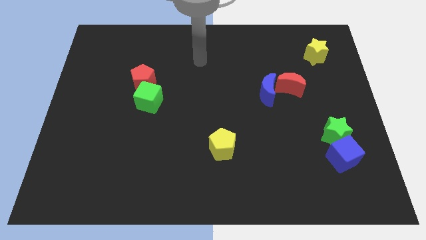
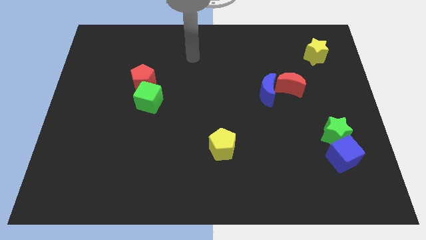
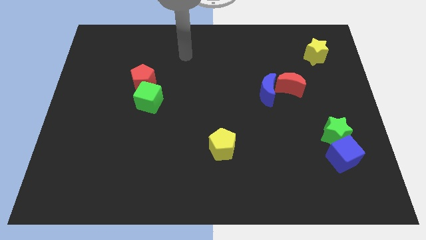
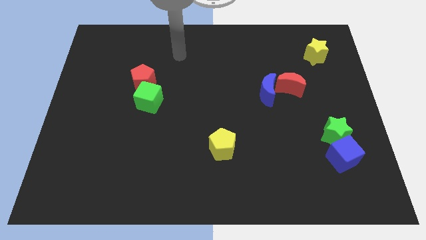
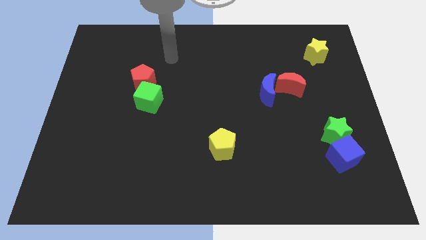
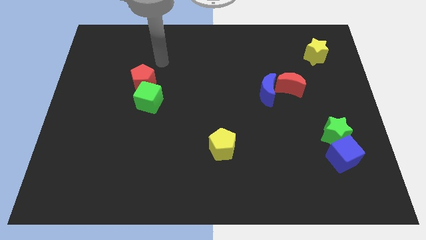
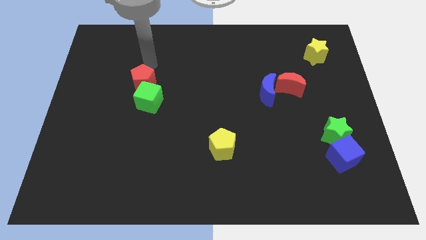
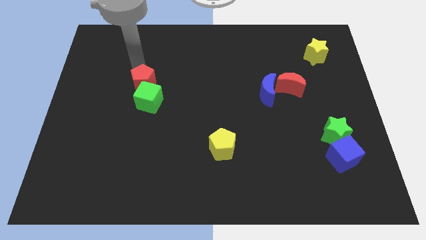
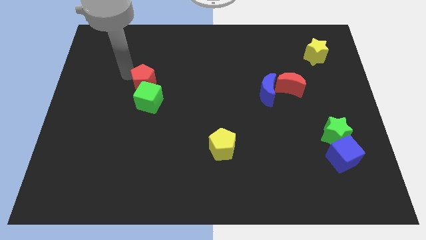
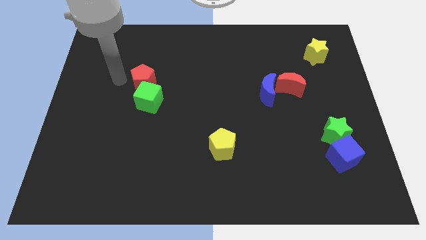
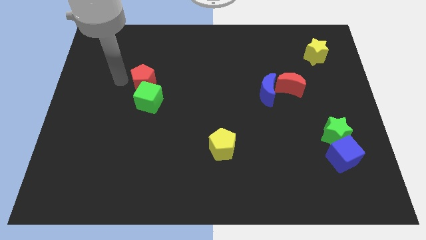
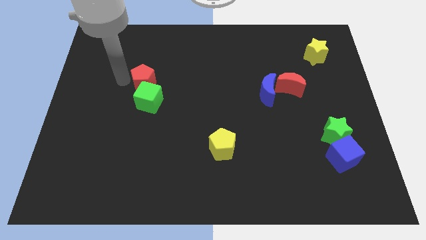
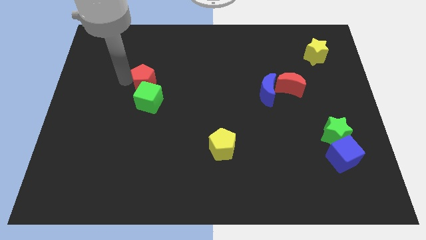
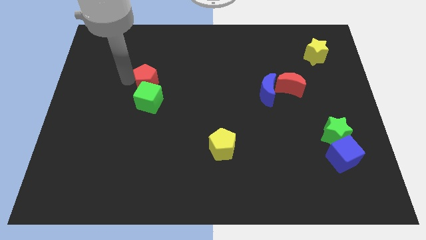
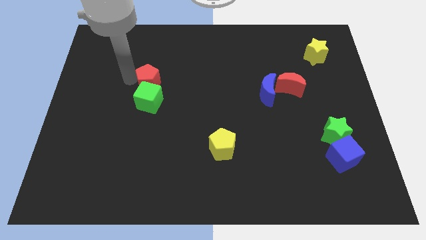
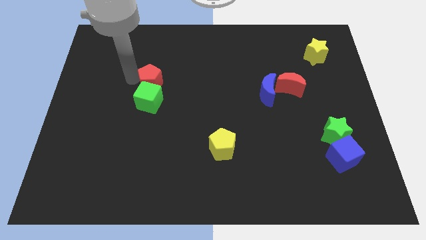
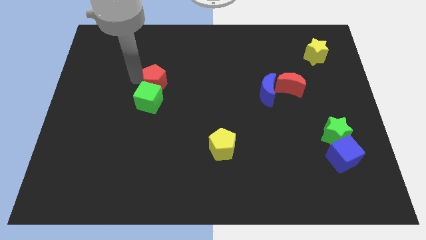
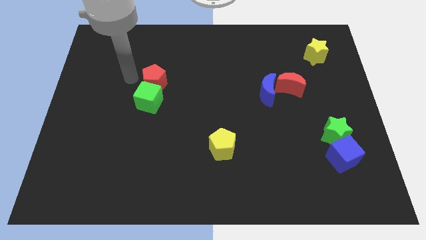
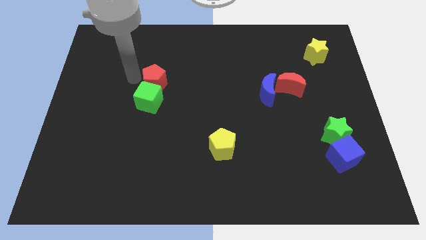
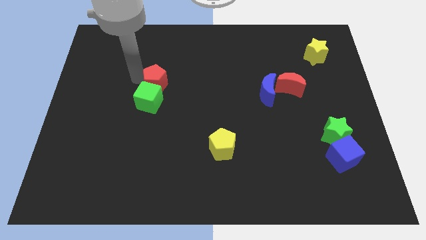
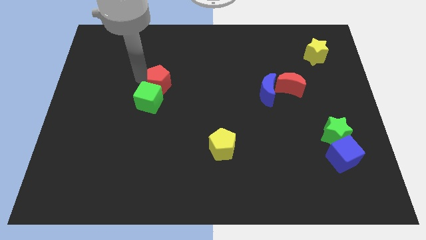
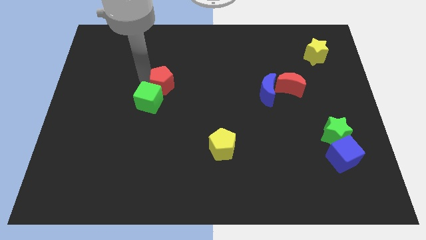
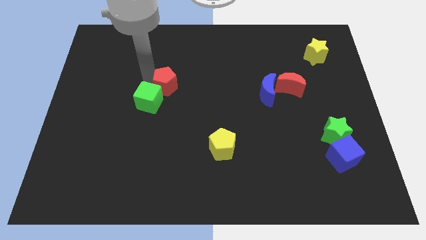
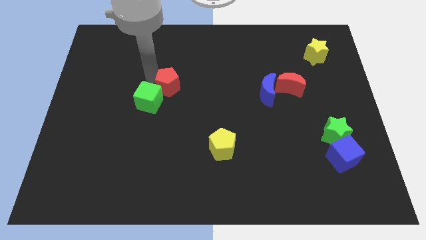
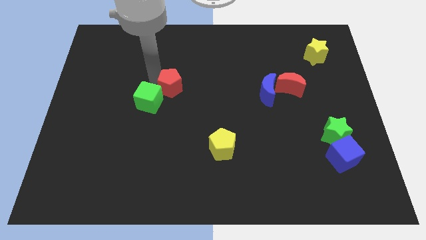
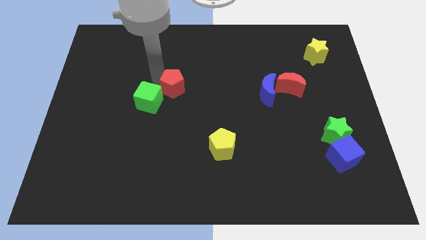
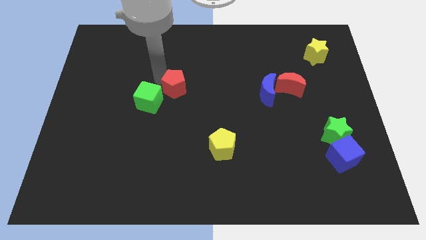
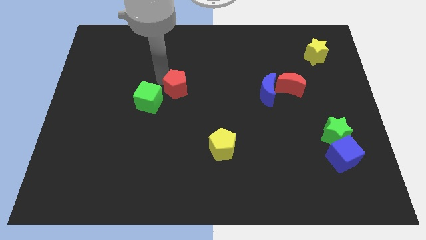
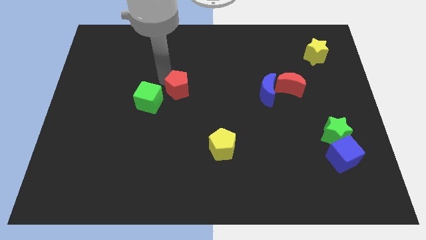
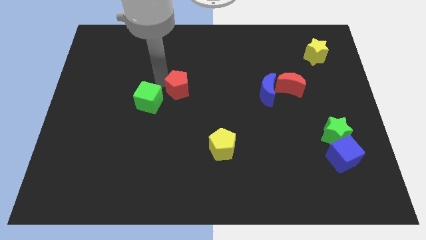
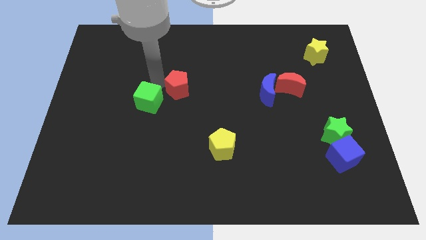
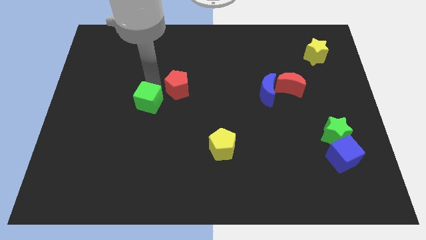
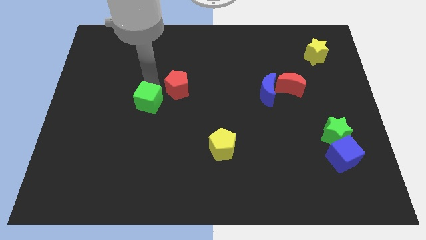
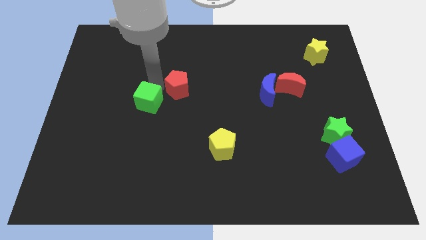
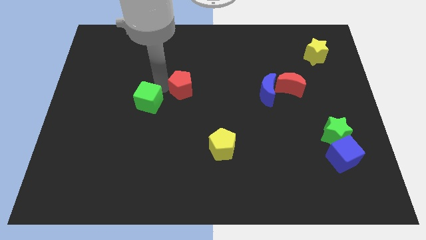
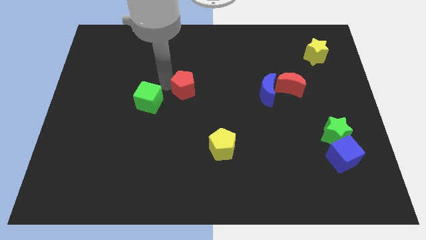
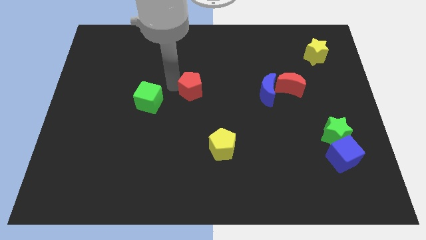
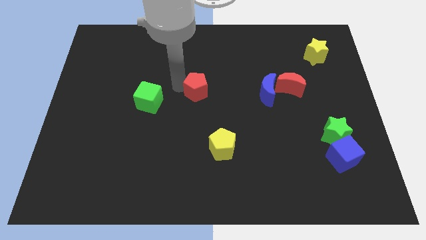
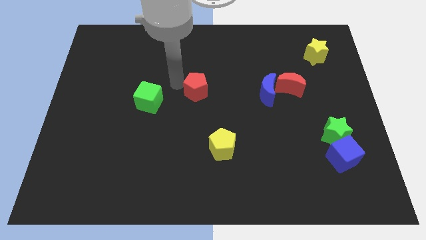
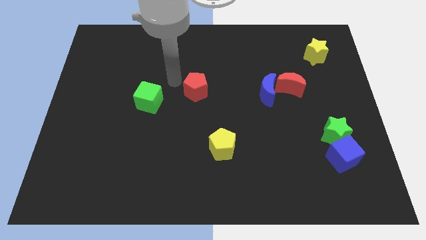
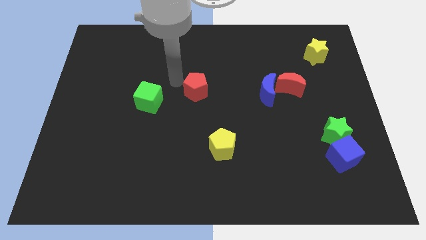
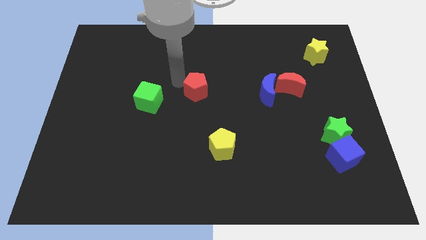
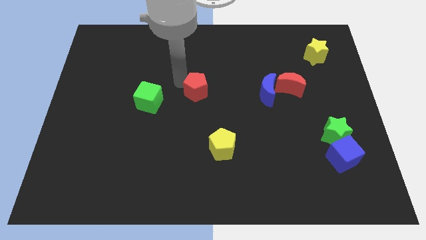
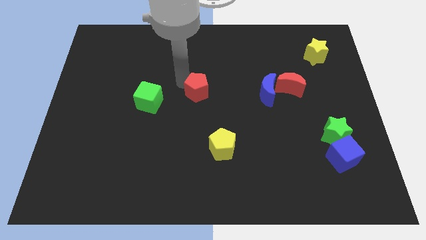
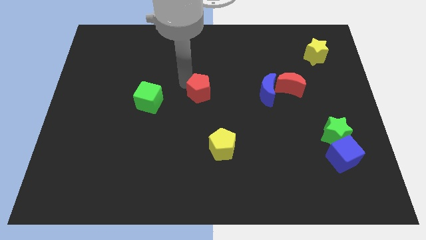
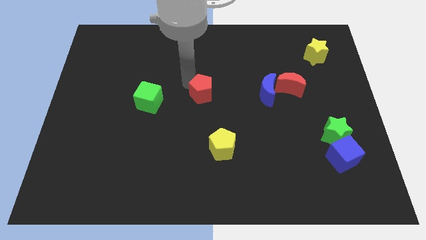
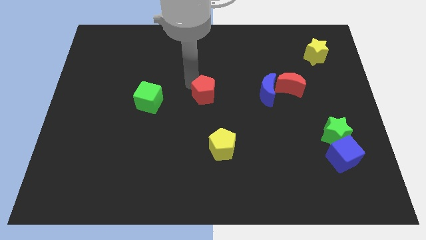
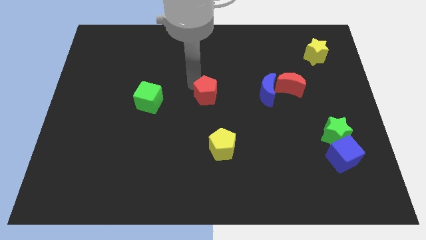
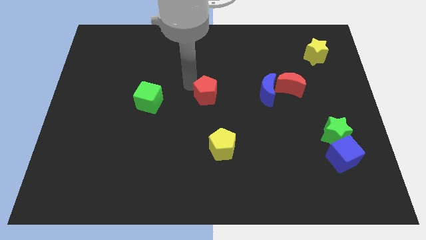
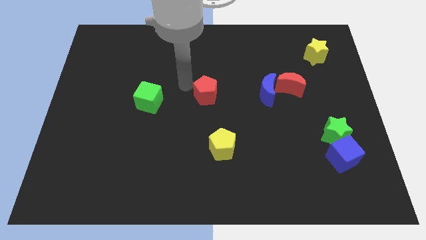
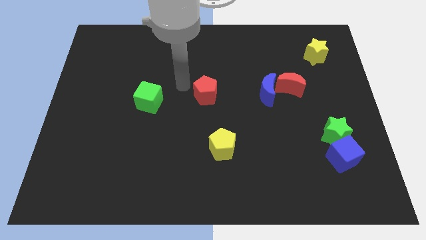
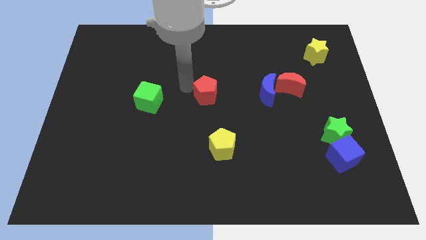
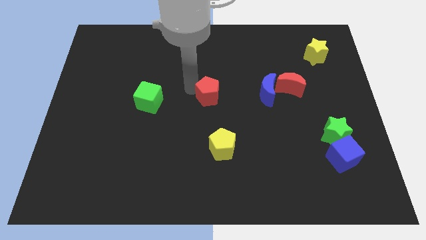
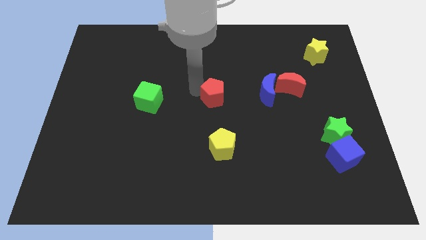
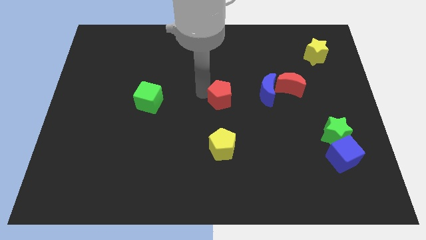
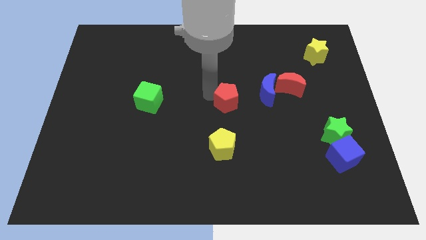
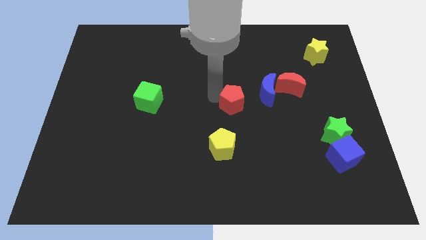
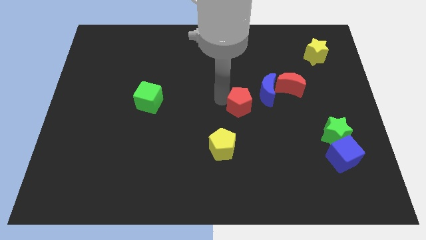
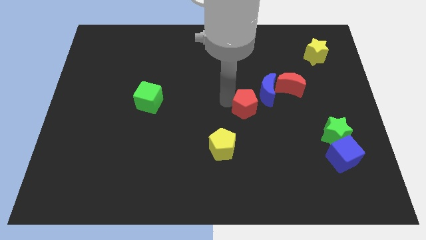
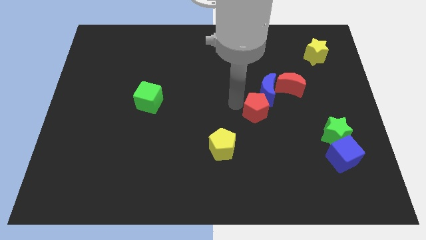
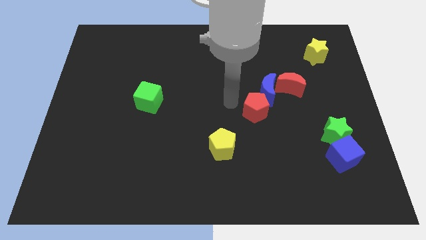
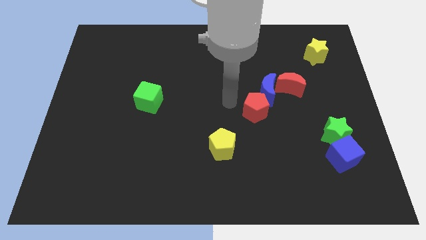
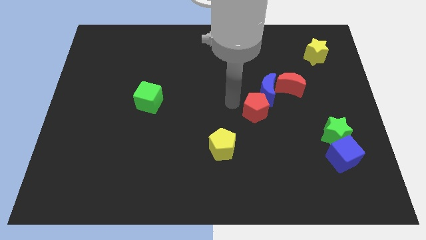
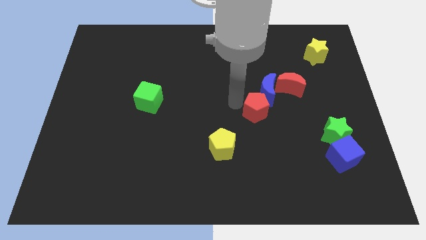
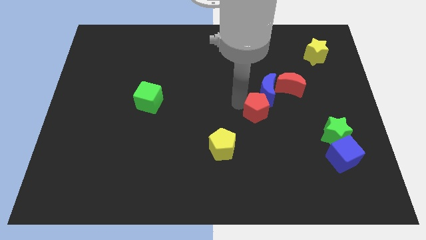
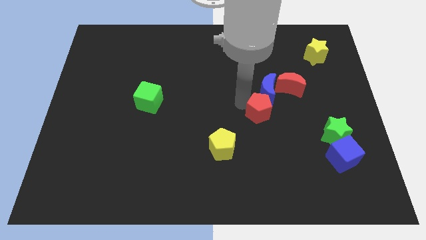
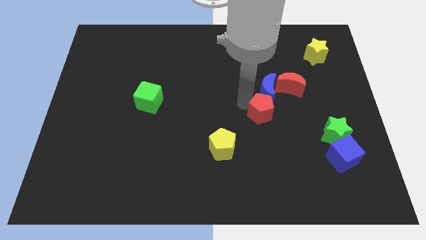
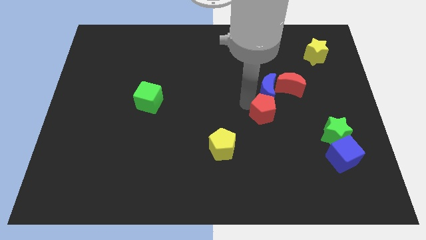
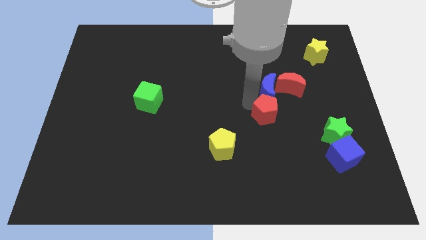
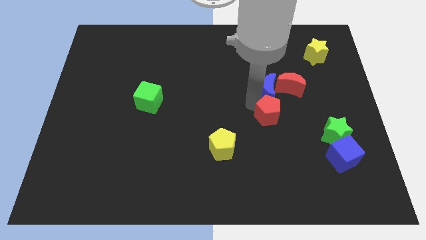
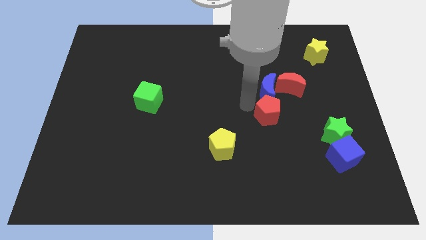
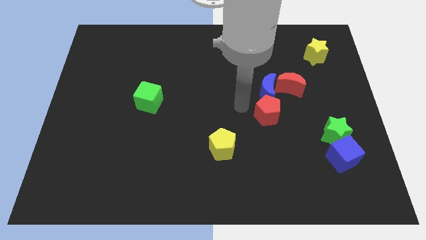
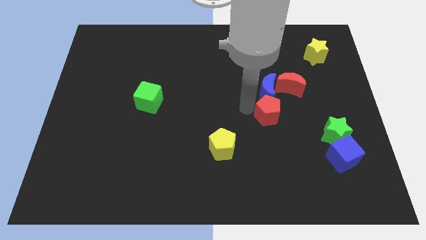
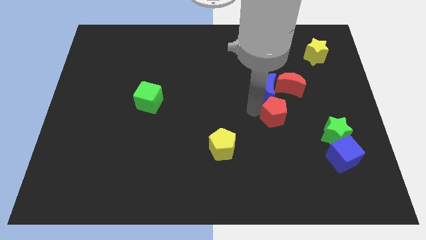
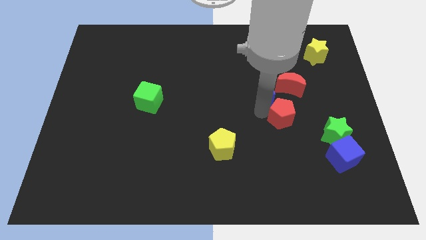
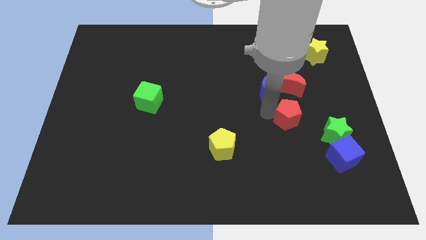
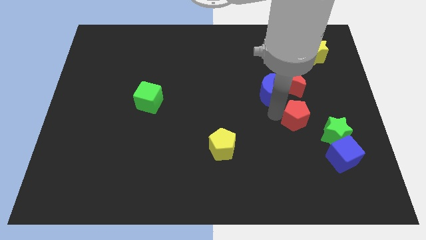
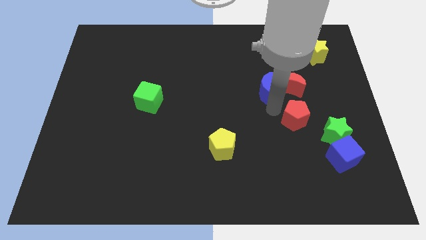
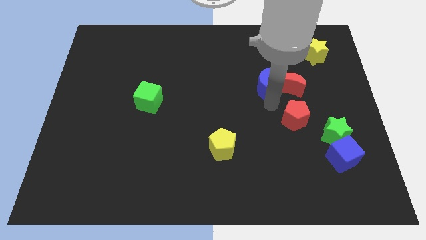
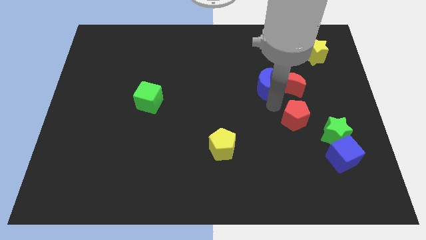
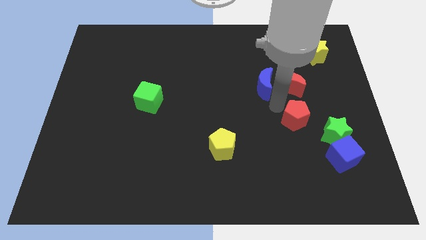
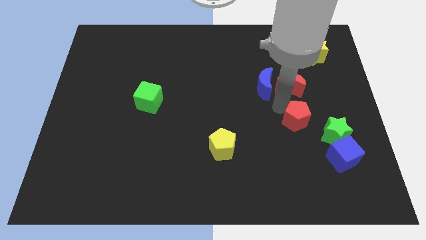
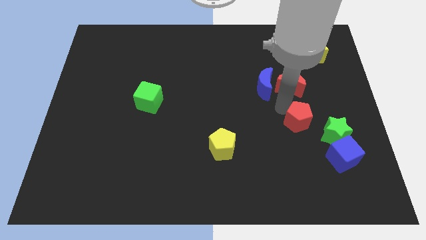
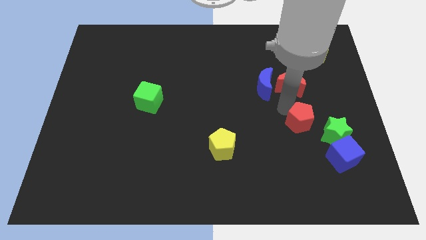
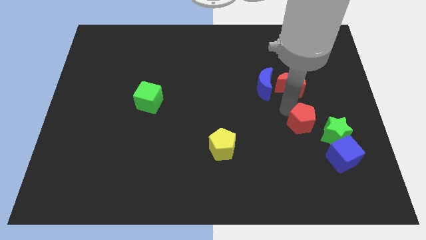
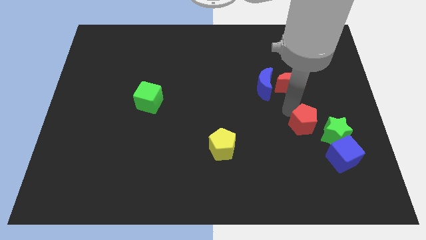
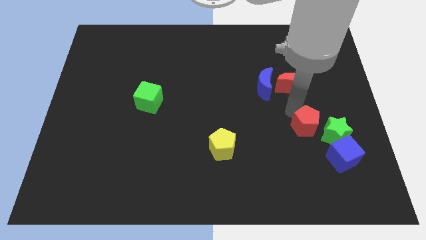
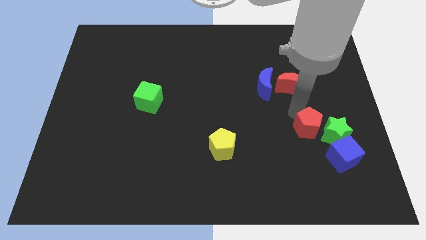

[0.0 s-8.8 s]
push the red pentagon towards the green star
